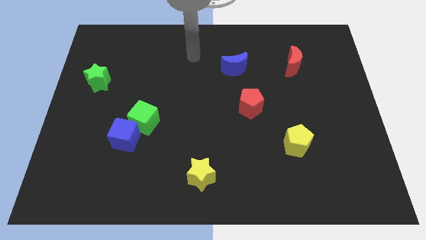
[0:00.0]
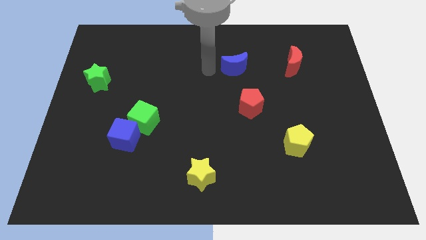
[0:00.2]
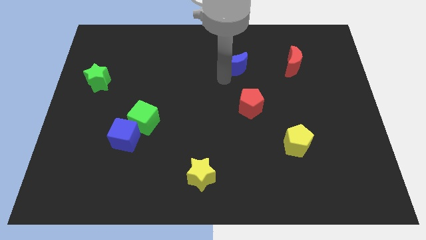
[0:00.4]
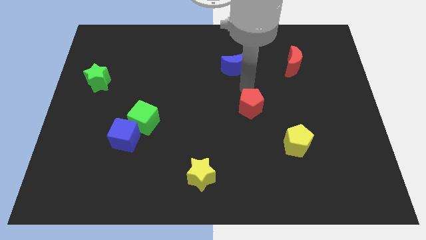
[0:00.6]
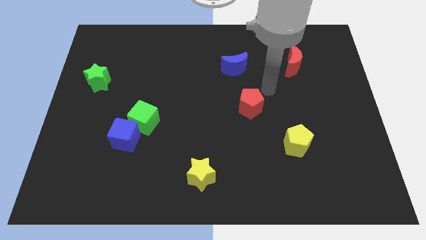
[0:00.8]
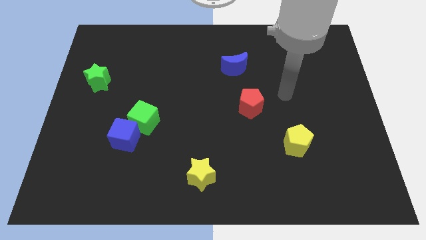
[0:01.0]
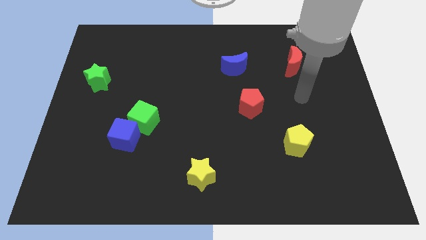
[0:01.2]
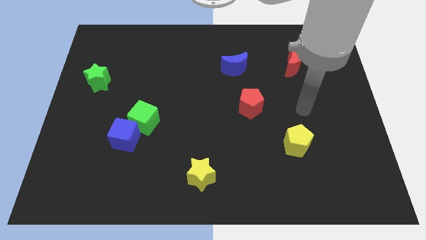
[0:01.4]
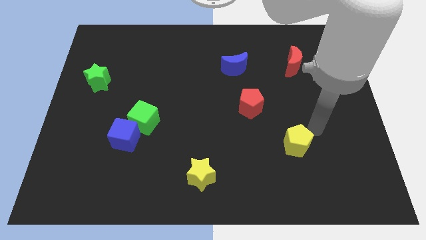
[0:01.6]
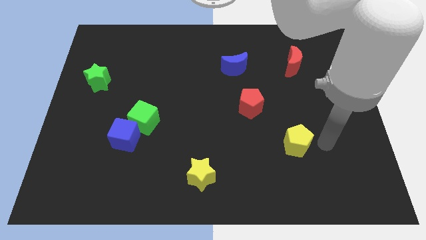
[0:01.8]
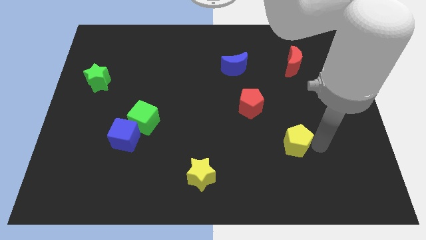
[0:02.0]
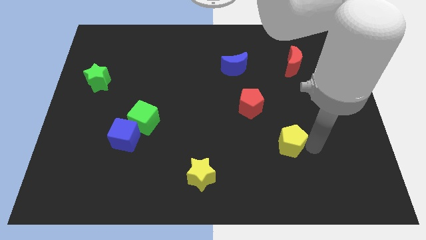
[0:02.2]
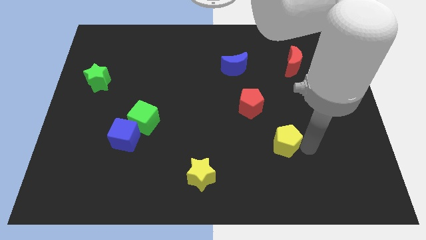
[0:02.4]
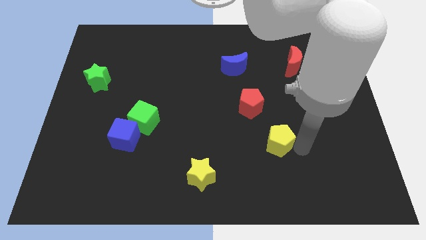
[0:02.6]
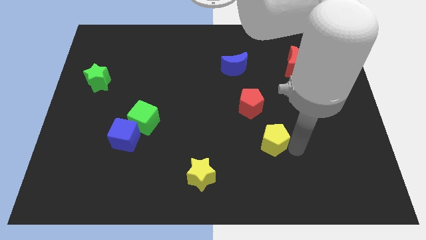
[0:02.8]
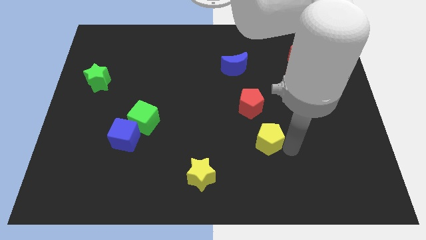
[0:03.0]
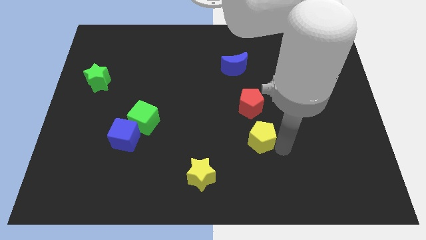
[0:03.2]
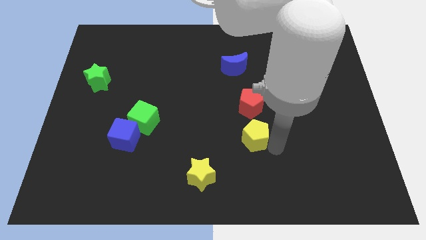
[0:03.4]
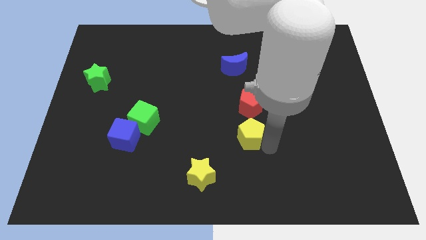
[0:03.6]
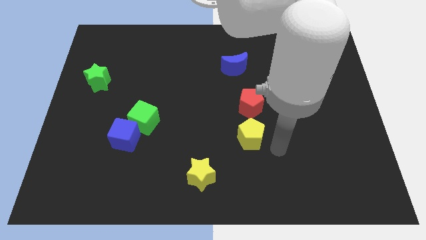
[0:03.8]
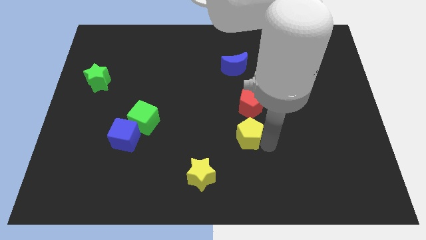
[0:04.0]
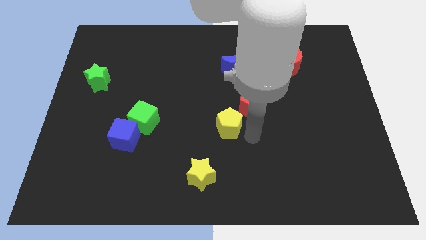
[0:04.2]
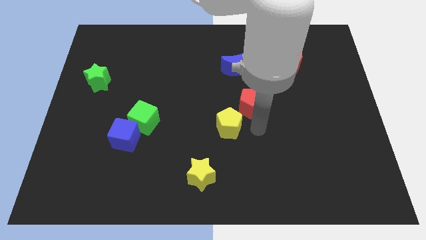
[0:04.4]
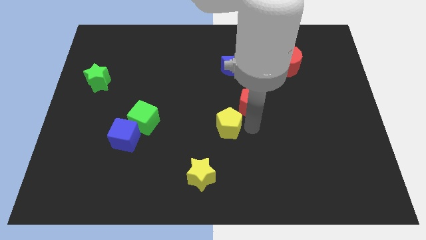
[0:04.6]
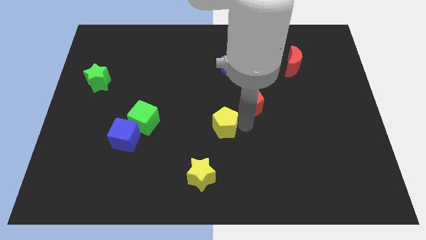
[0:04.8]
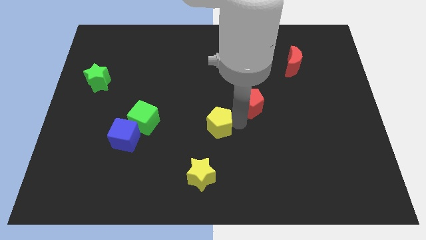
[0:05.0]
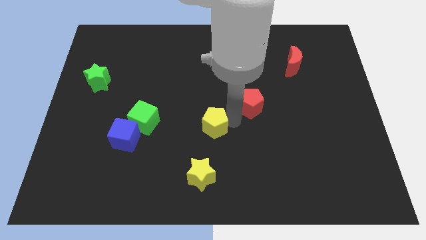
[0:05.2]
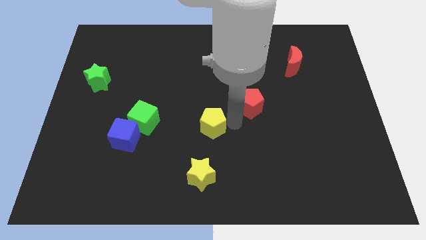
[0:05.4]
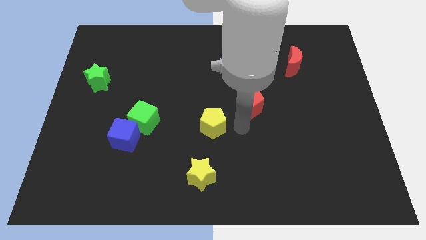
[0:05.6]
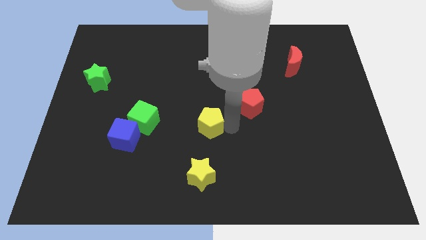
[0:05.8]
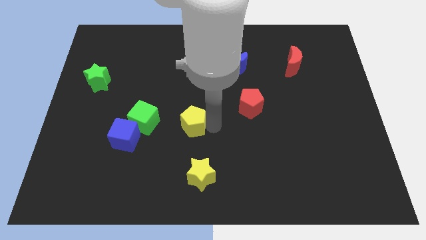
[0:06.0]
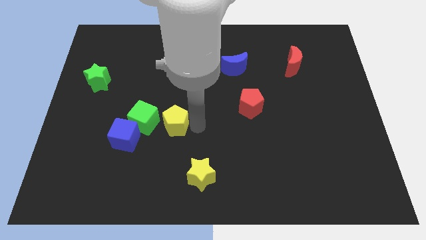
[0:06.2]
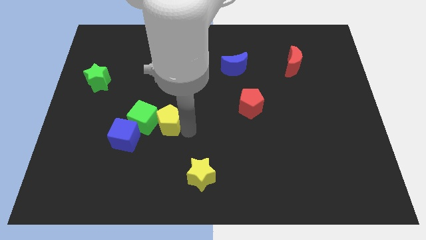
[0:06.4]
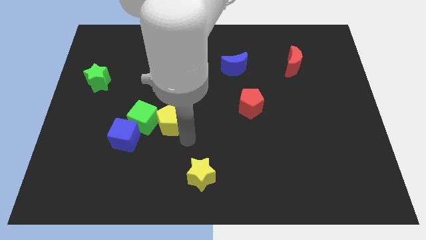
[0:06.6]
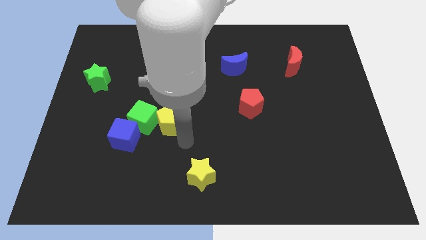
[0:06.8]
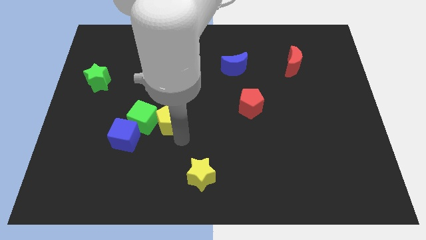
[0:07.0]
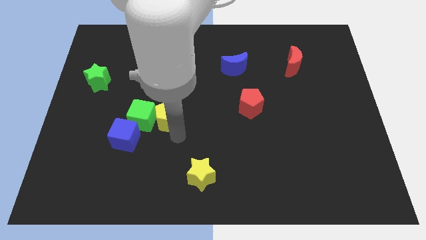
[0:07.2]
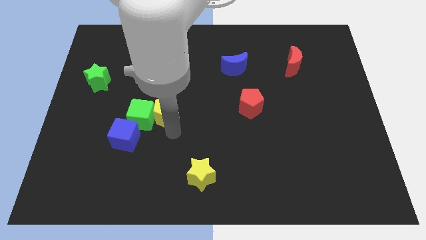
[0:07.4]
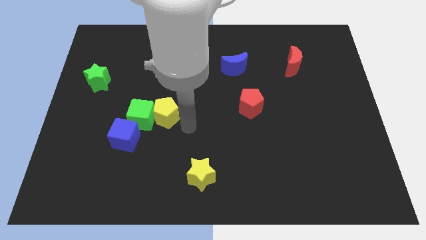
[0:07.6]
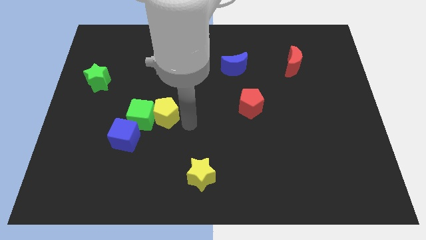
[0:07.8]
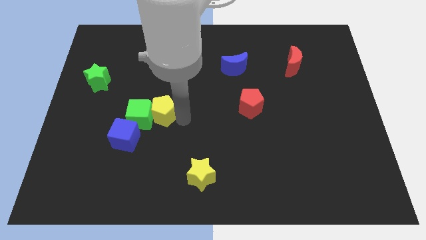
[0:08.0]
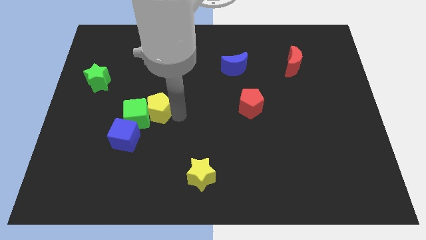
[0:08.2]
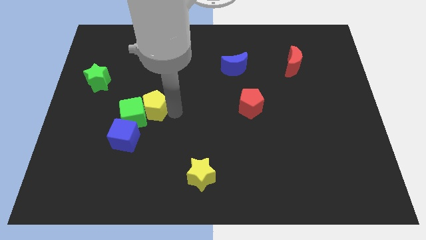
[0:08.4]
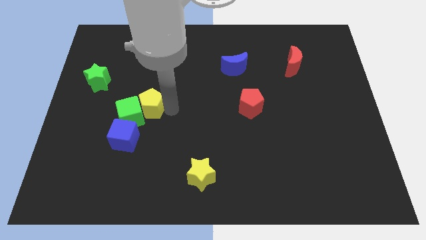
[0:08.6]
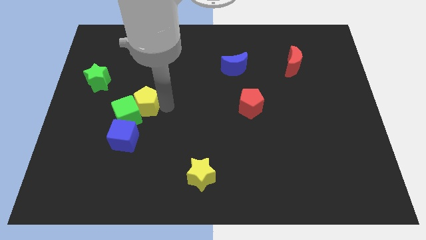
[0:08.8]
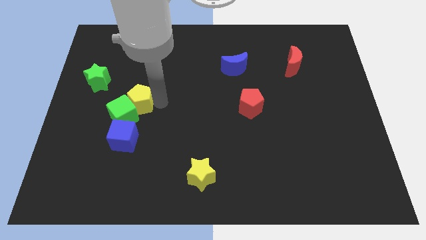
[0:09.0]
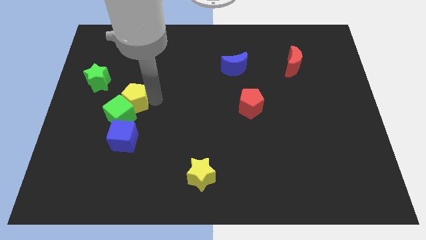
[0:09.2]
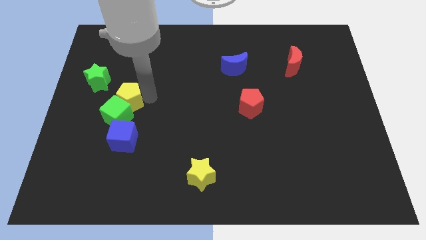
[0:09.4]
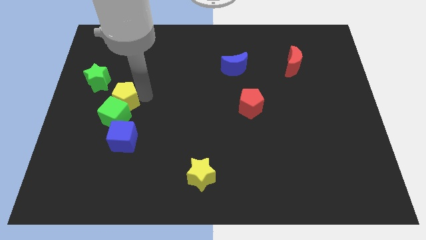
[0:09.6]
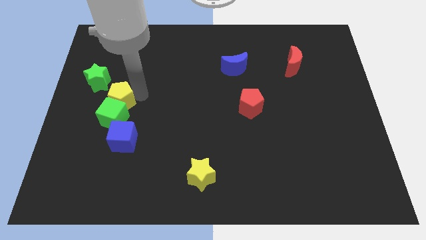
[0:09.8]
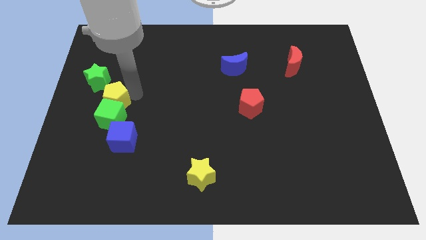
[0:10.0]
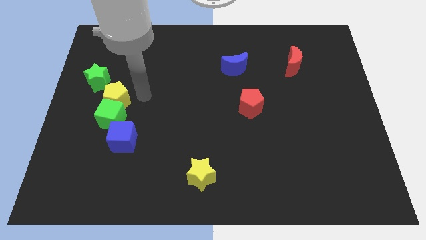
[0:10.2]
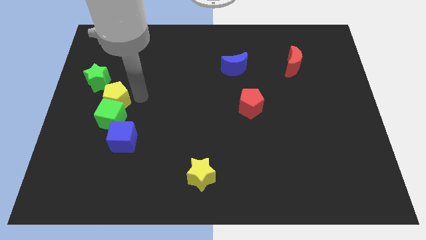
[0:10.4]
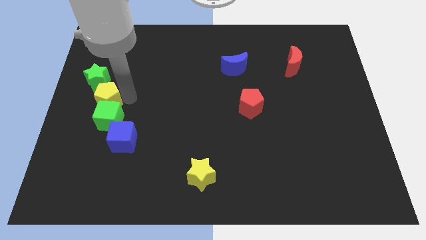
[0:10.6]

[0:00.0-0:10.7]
push the yellow pentagon to the left side

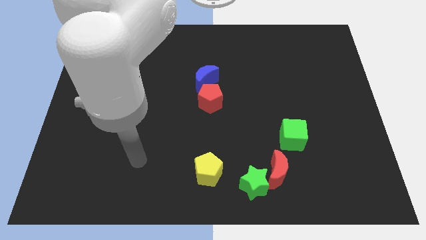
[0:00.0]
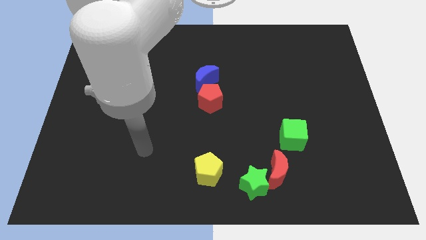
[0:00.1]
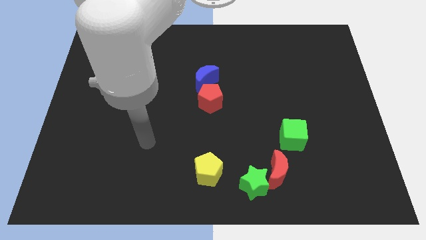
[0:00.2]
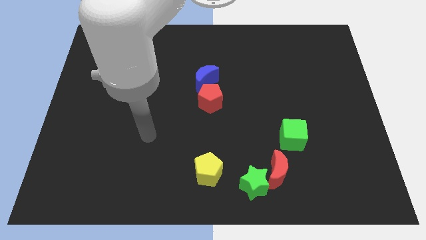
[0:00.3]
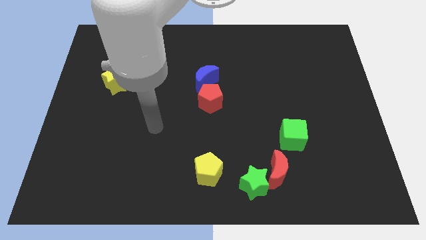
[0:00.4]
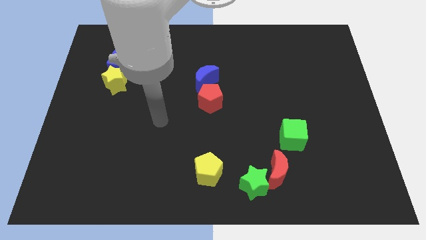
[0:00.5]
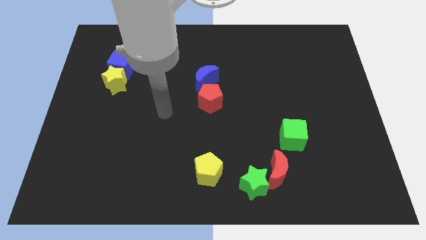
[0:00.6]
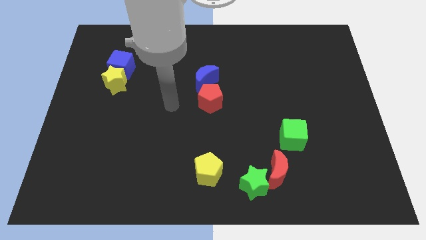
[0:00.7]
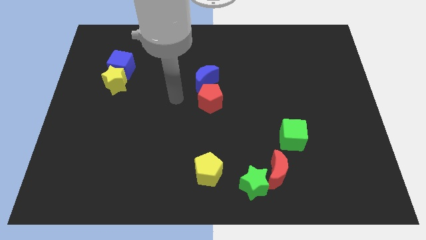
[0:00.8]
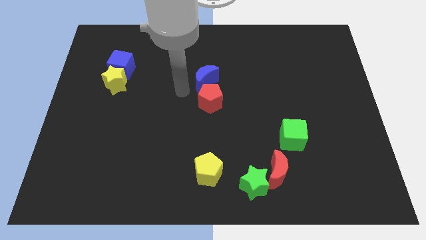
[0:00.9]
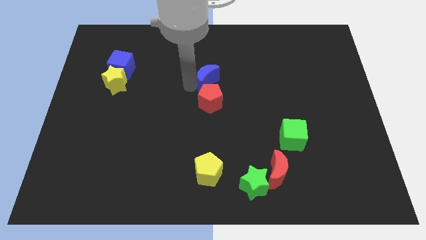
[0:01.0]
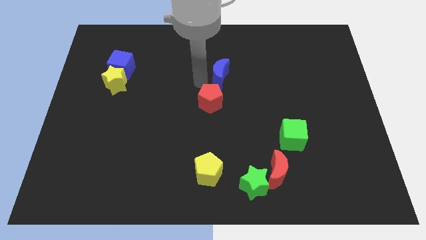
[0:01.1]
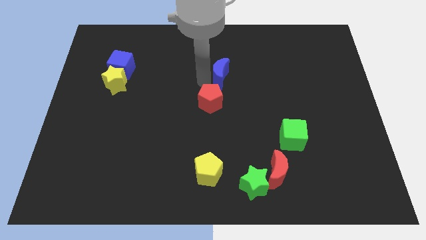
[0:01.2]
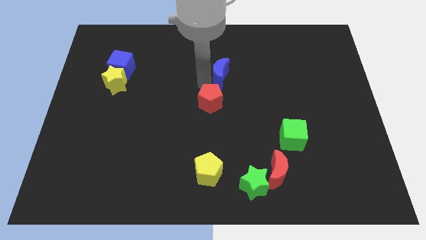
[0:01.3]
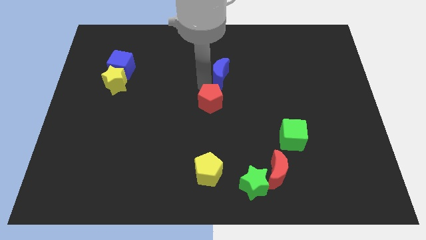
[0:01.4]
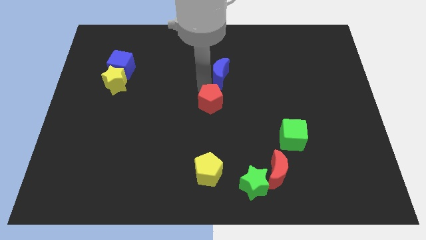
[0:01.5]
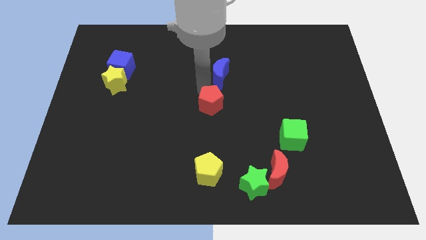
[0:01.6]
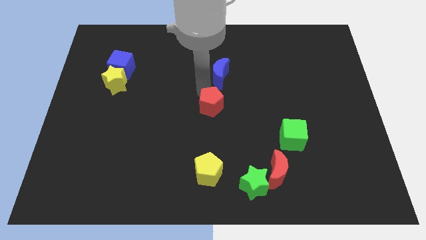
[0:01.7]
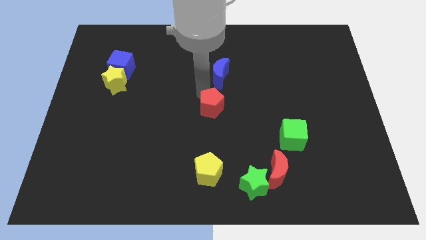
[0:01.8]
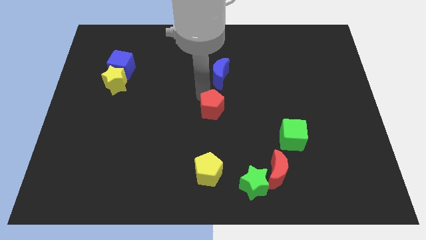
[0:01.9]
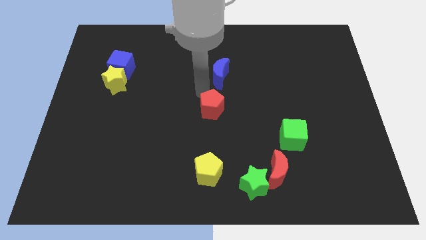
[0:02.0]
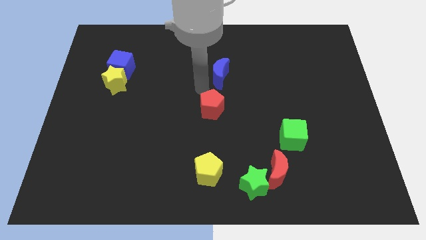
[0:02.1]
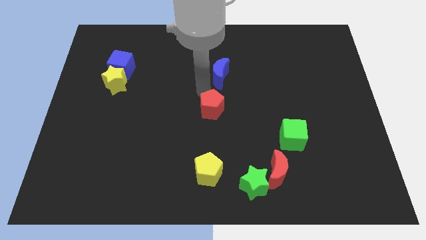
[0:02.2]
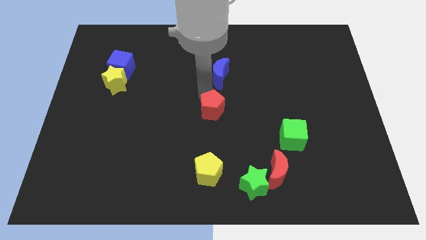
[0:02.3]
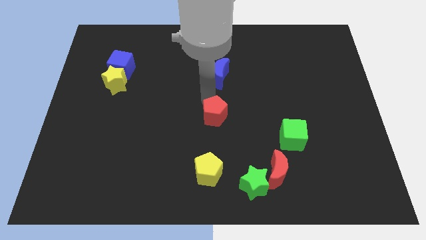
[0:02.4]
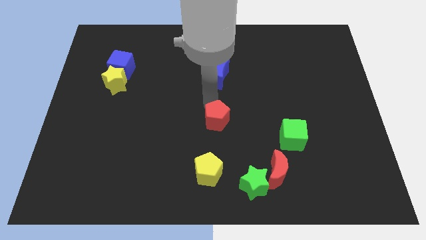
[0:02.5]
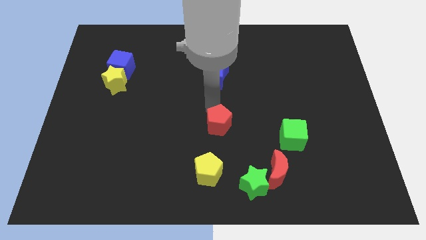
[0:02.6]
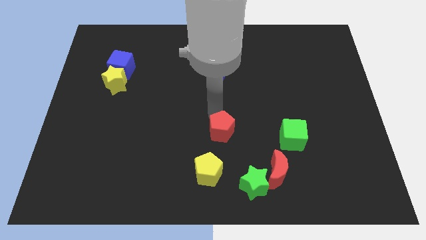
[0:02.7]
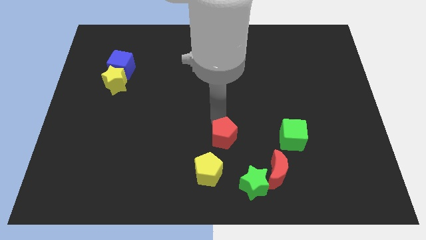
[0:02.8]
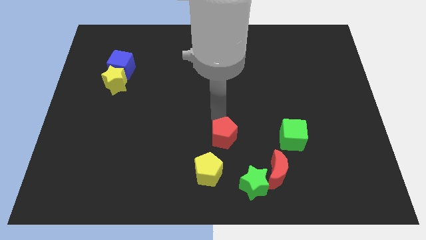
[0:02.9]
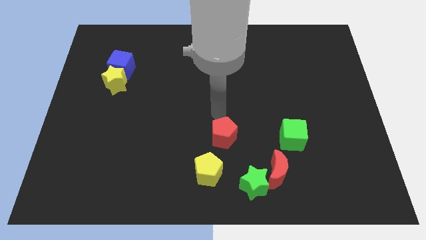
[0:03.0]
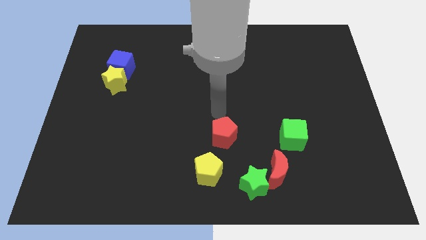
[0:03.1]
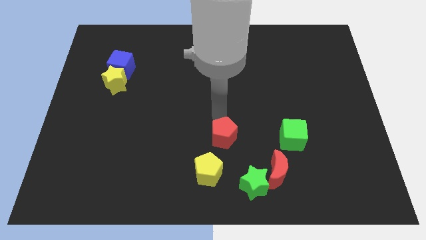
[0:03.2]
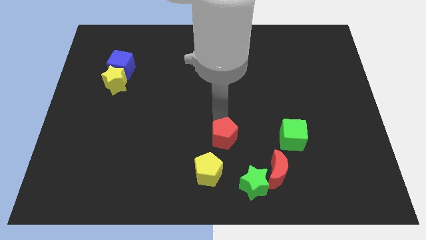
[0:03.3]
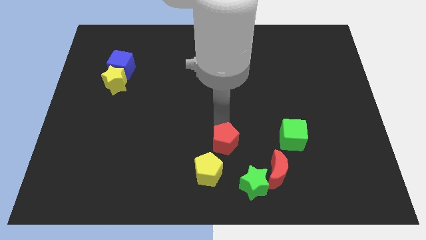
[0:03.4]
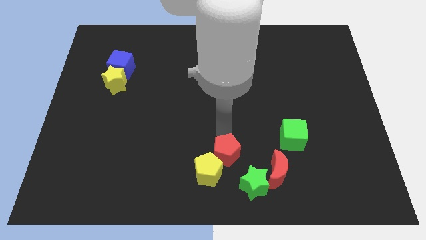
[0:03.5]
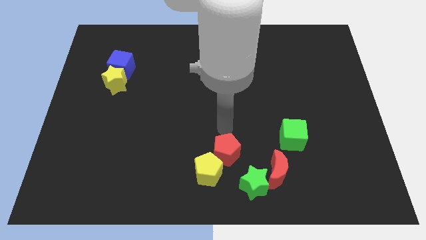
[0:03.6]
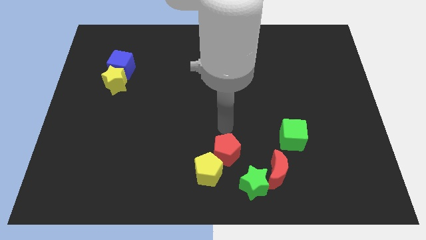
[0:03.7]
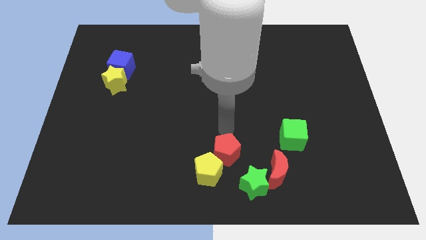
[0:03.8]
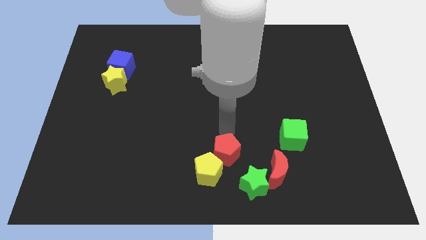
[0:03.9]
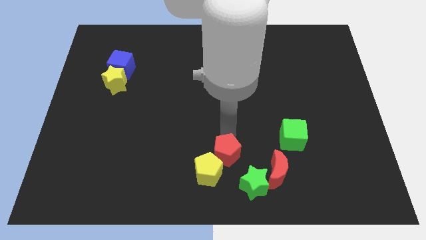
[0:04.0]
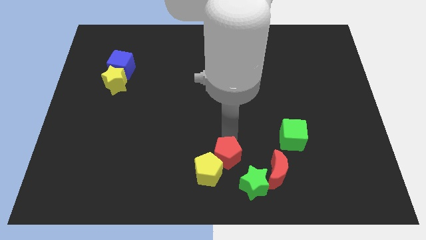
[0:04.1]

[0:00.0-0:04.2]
move the red pentagon to the bottom
